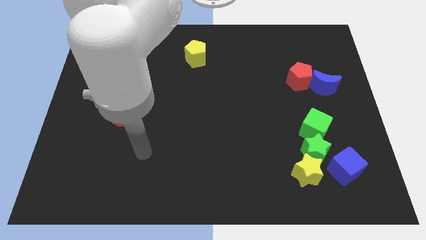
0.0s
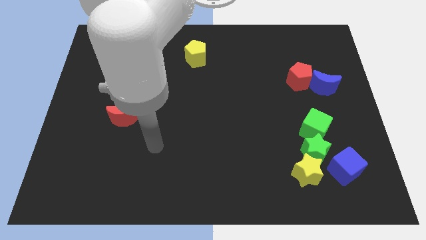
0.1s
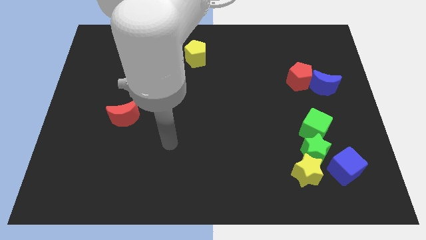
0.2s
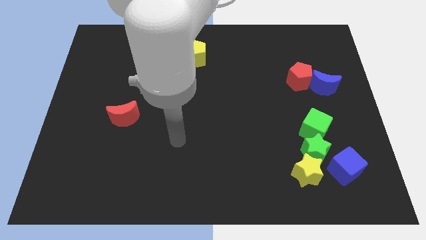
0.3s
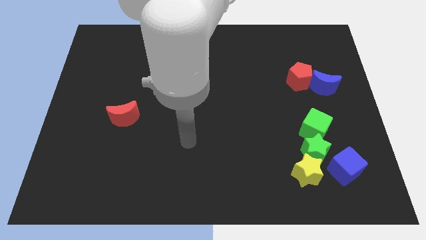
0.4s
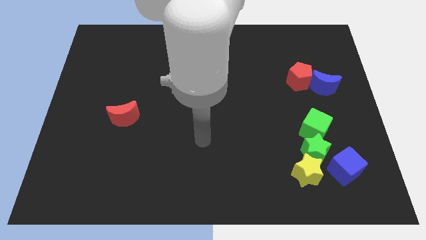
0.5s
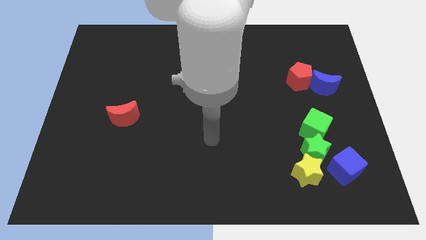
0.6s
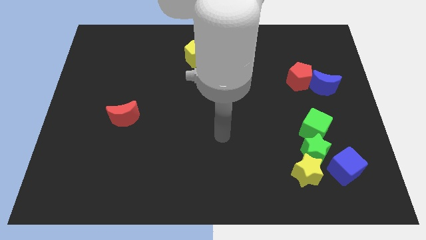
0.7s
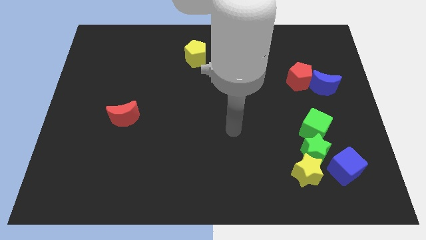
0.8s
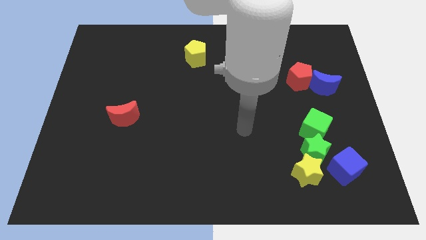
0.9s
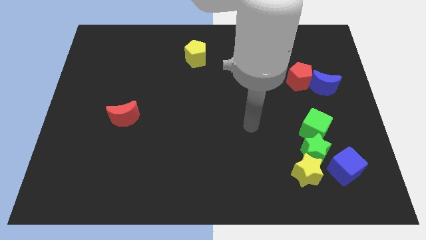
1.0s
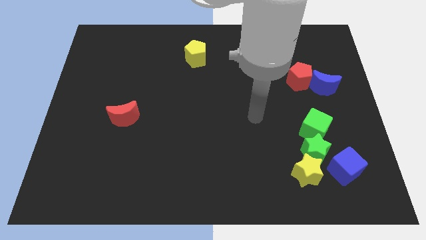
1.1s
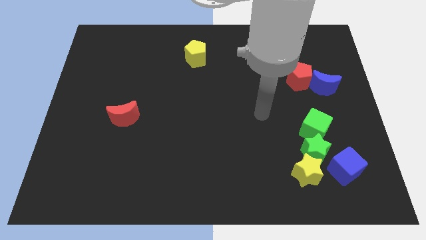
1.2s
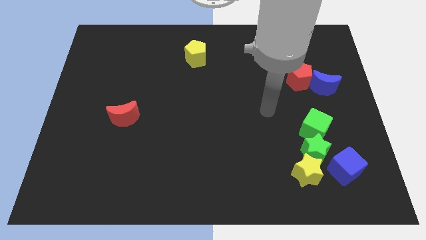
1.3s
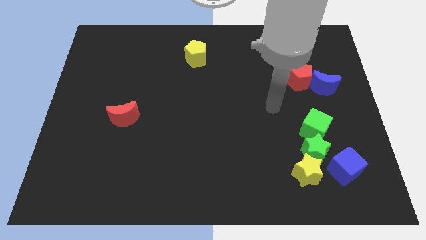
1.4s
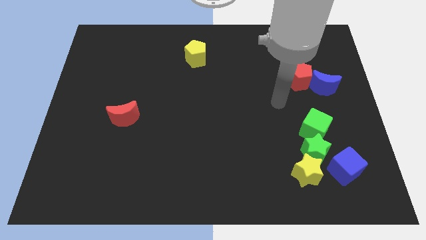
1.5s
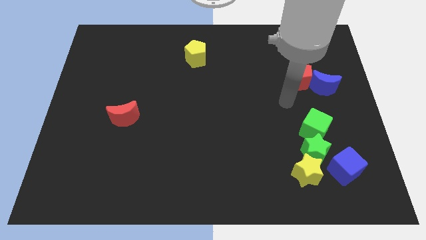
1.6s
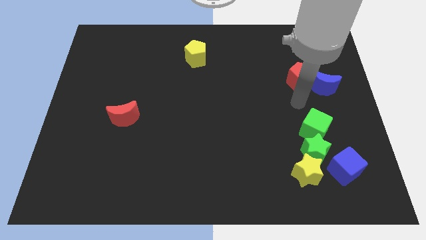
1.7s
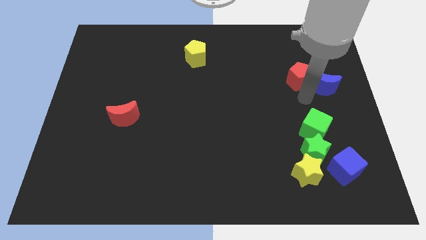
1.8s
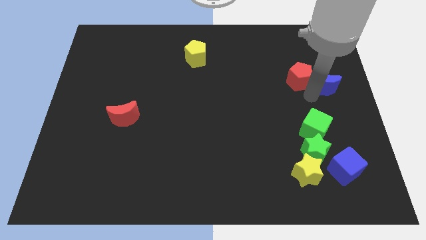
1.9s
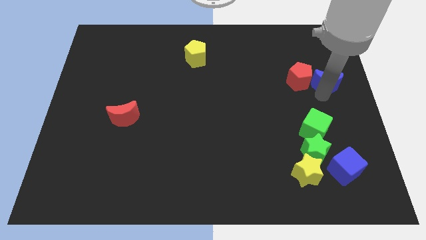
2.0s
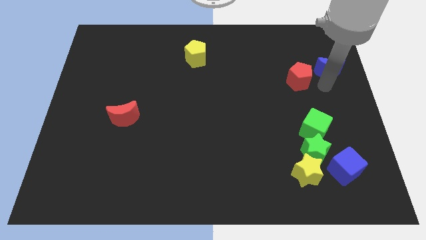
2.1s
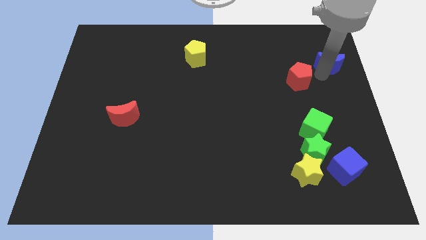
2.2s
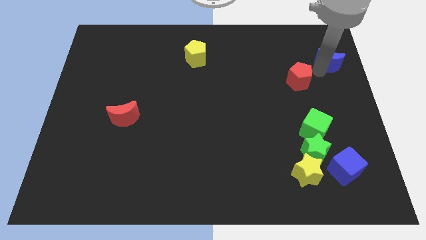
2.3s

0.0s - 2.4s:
pull the red pentagon apart from the blue moon

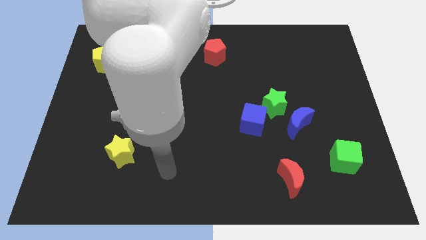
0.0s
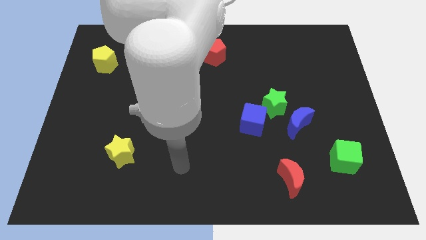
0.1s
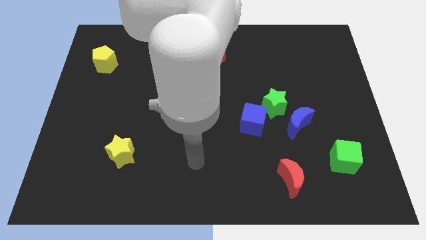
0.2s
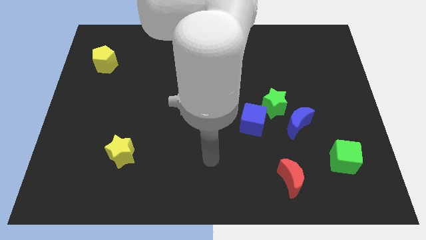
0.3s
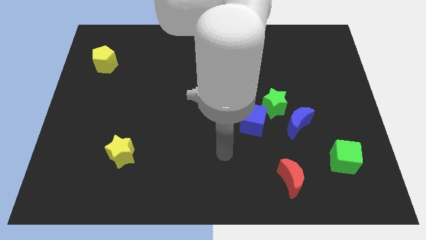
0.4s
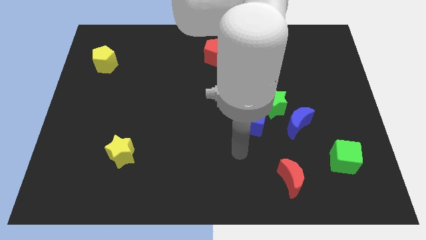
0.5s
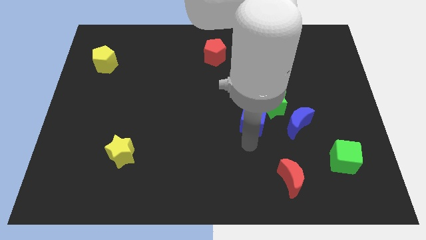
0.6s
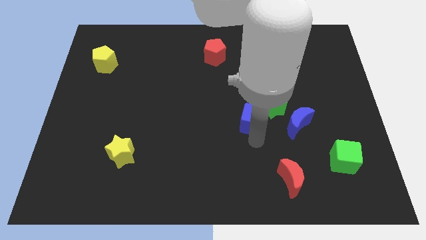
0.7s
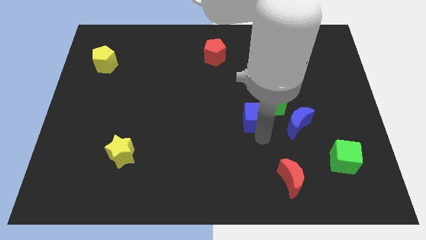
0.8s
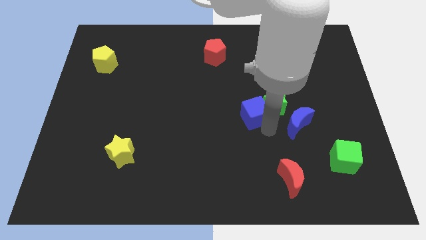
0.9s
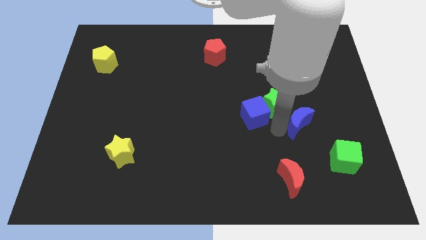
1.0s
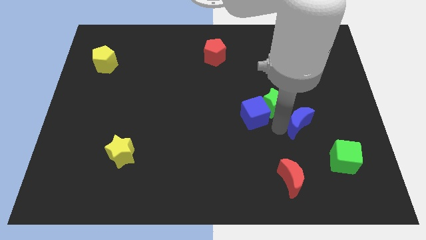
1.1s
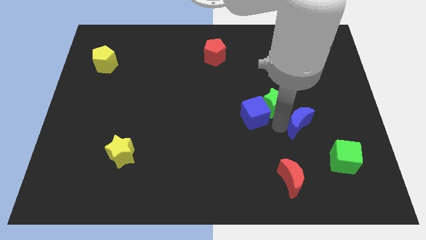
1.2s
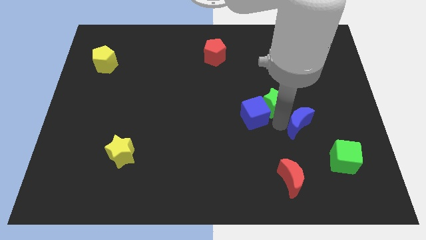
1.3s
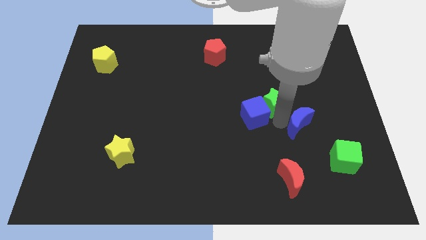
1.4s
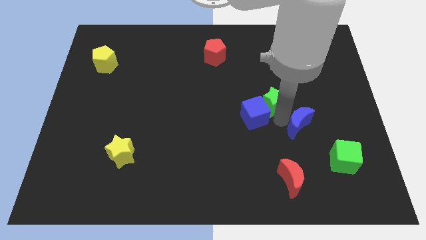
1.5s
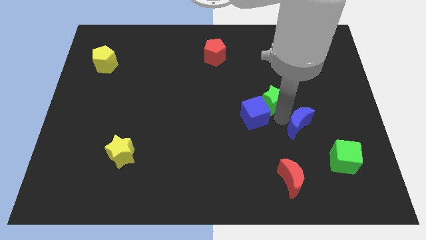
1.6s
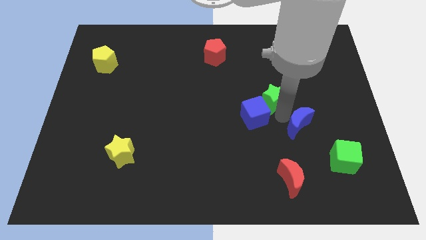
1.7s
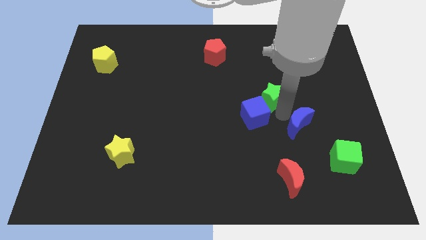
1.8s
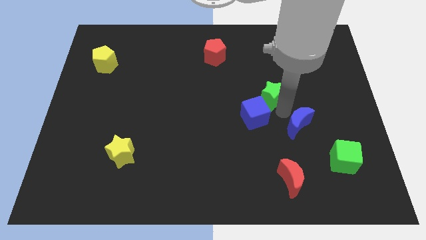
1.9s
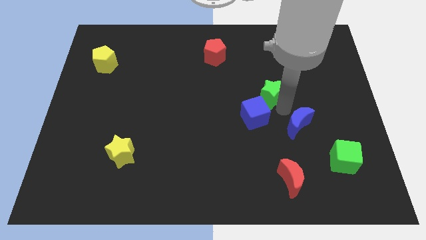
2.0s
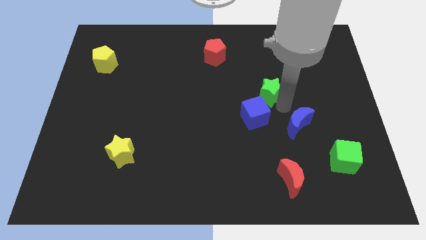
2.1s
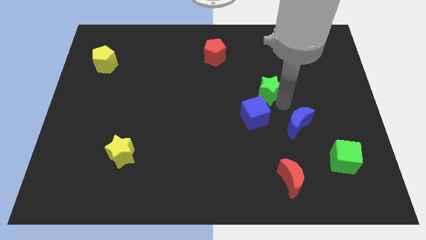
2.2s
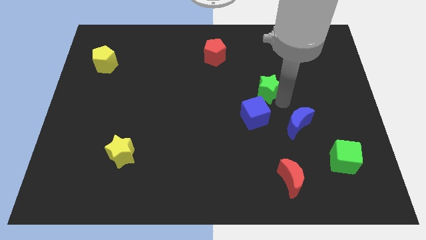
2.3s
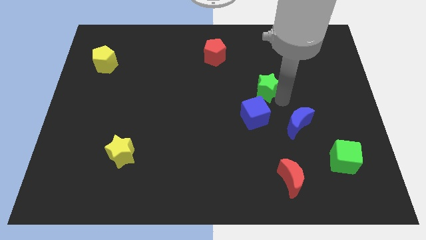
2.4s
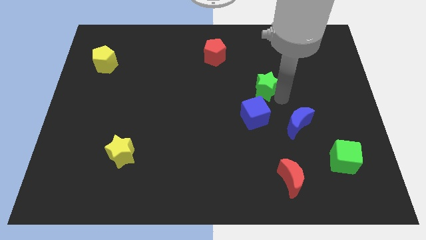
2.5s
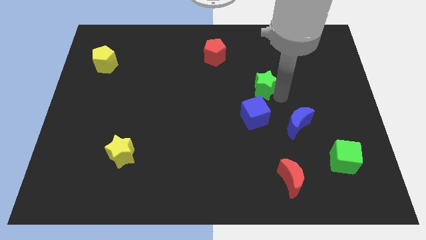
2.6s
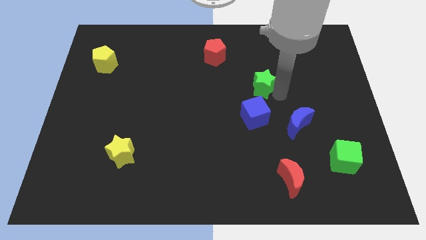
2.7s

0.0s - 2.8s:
pull the green star apart from the blue moon and blue cube

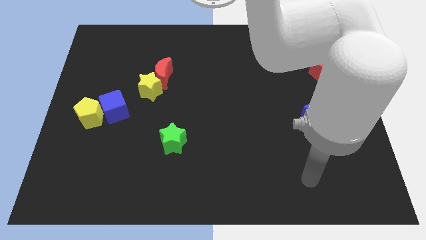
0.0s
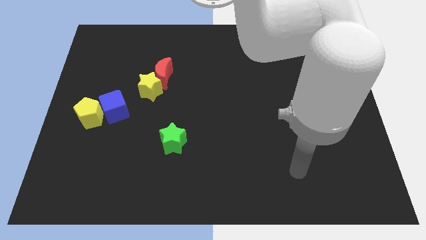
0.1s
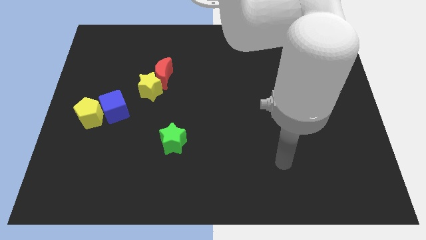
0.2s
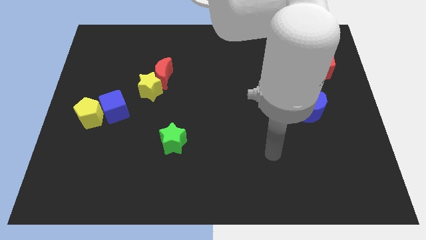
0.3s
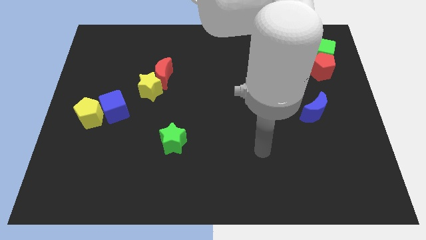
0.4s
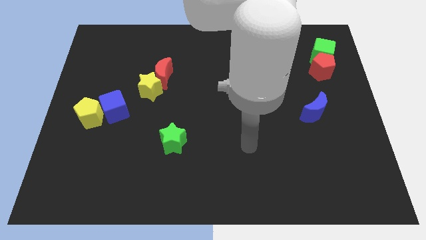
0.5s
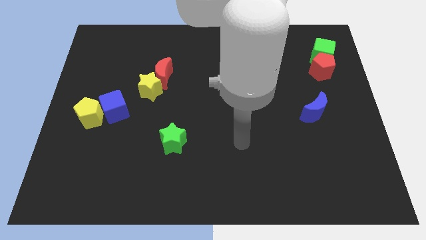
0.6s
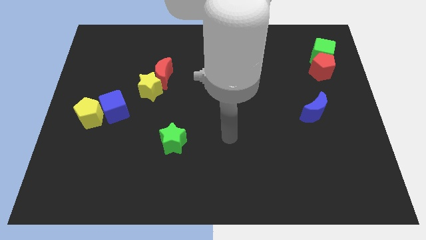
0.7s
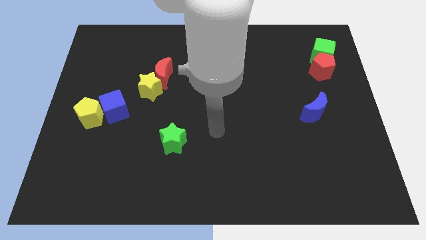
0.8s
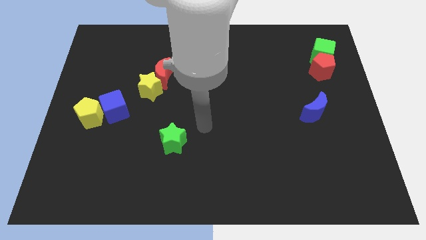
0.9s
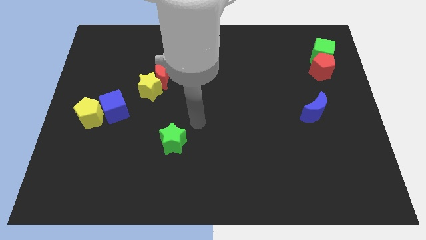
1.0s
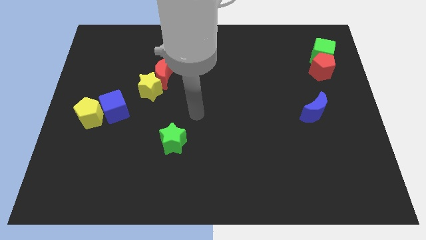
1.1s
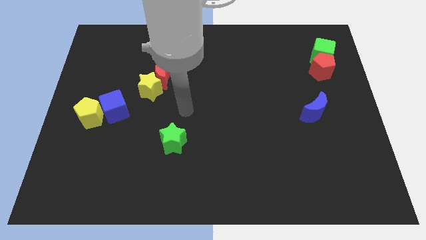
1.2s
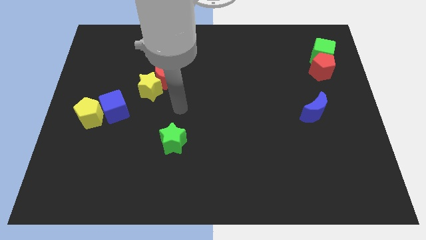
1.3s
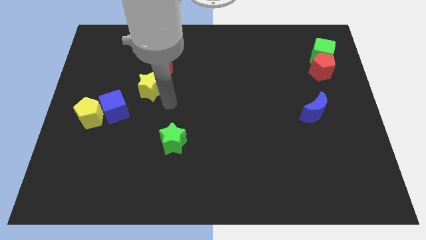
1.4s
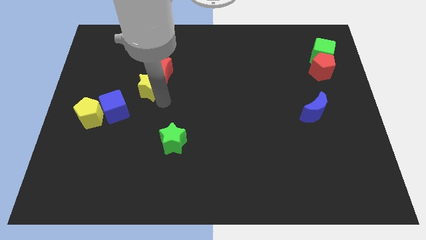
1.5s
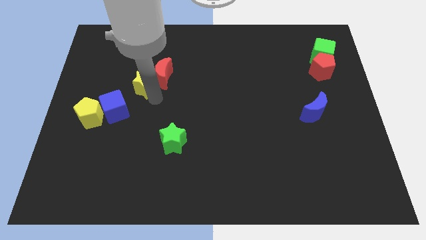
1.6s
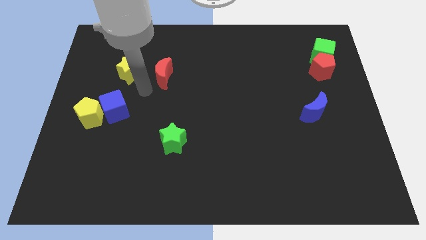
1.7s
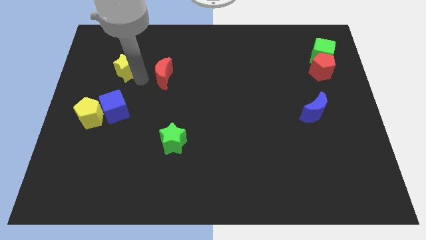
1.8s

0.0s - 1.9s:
move the red moon away from the yellow star

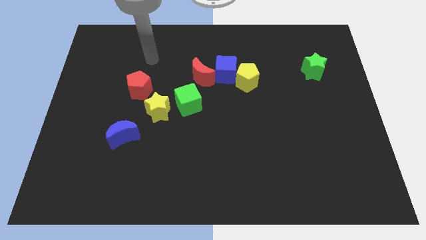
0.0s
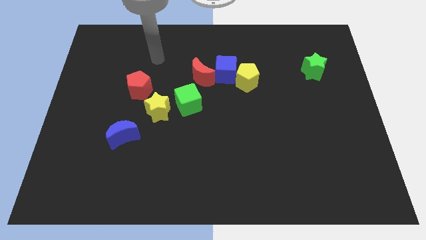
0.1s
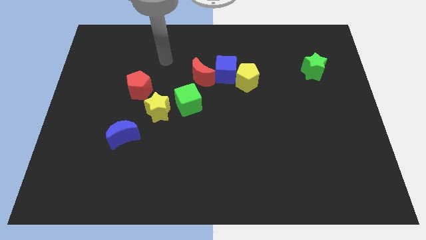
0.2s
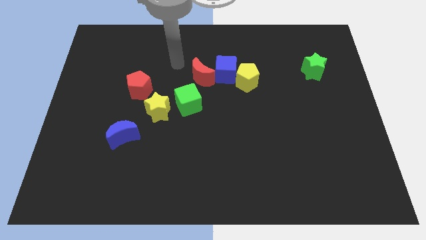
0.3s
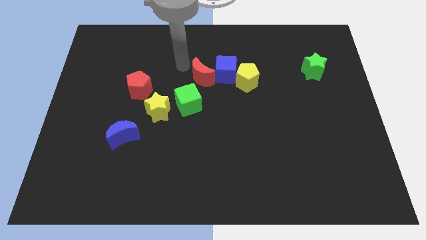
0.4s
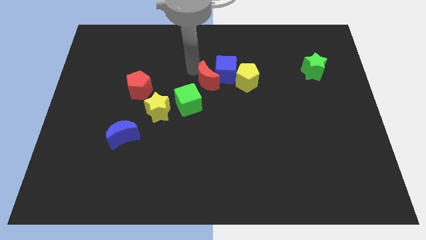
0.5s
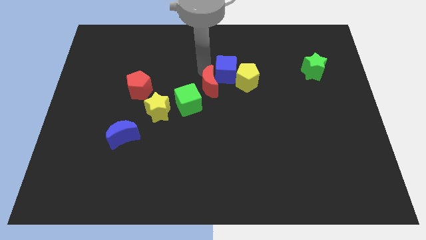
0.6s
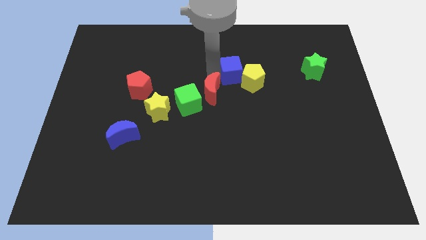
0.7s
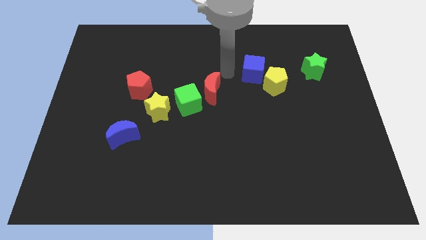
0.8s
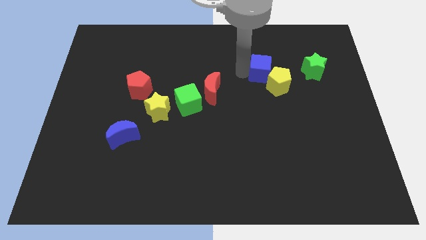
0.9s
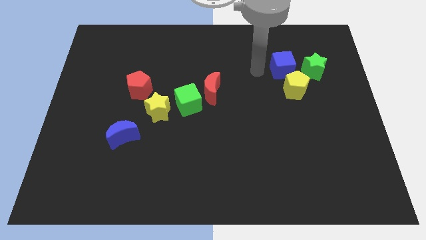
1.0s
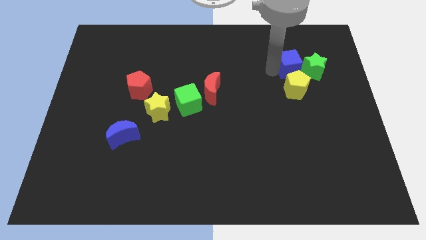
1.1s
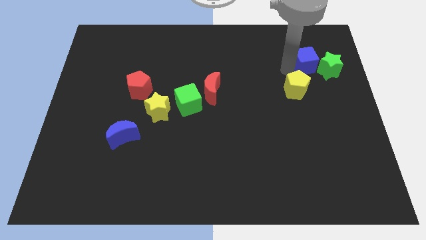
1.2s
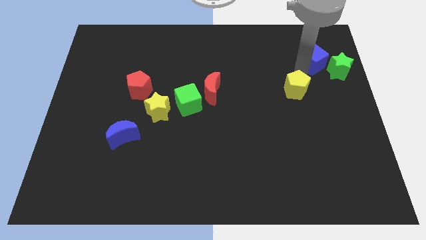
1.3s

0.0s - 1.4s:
pull the yellow pentagon apart from the blue cube

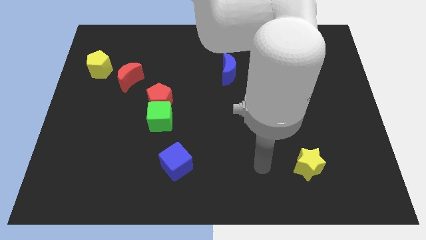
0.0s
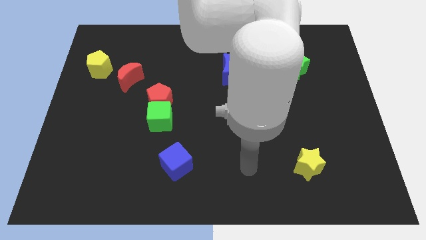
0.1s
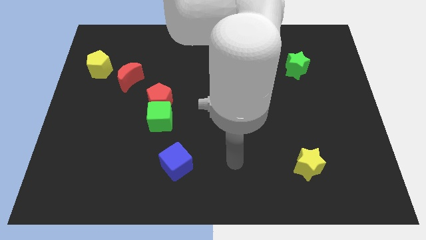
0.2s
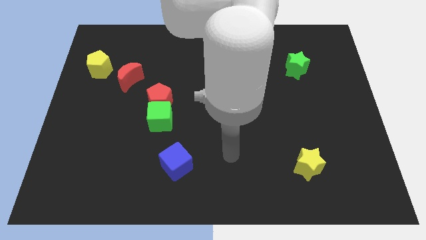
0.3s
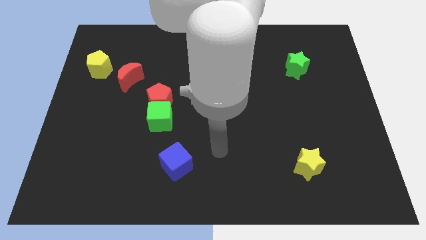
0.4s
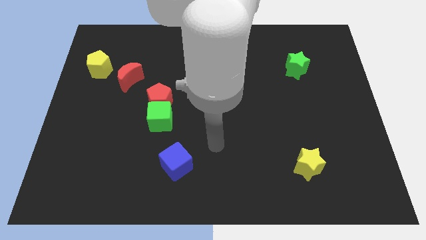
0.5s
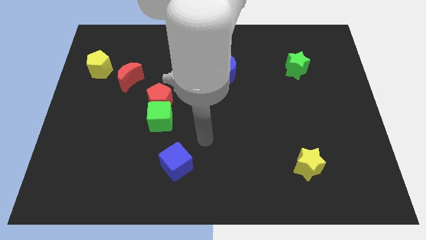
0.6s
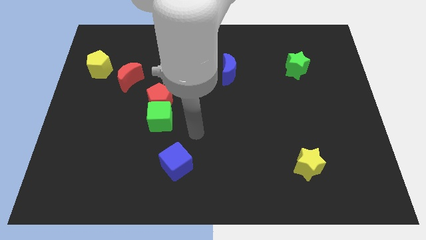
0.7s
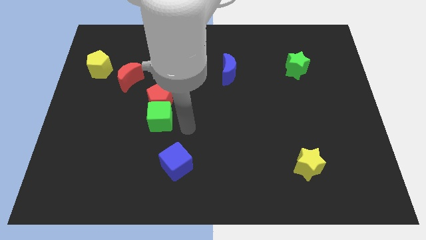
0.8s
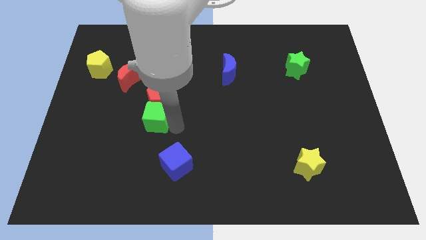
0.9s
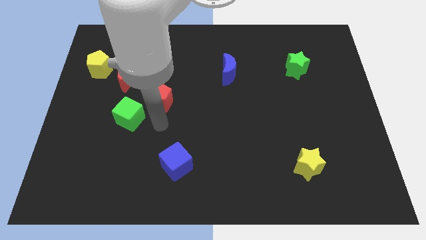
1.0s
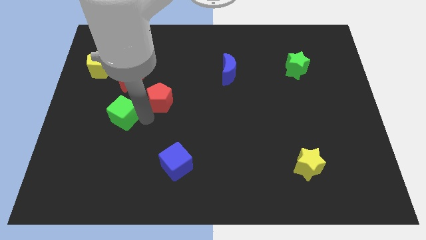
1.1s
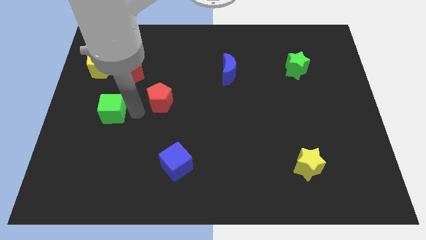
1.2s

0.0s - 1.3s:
separate the red pentagon from the green cube
